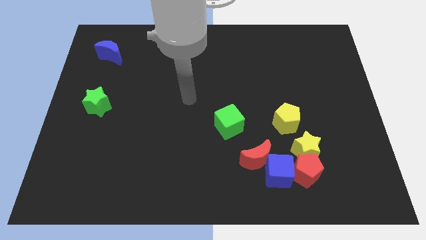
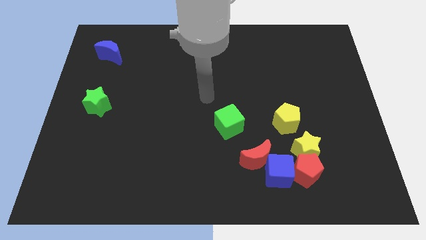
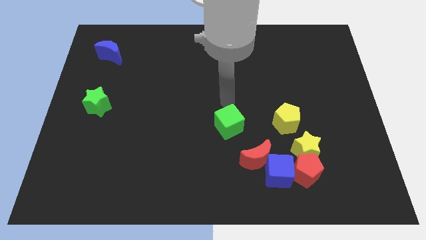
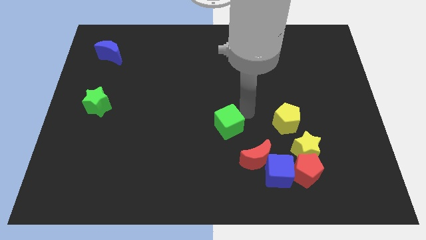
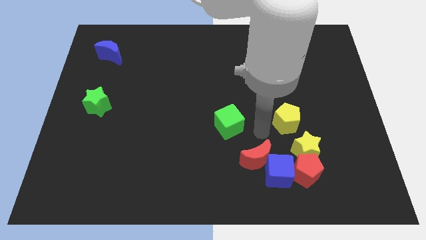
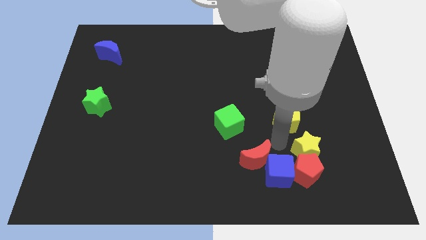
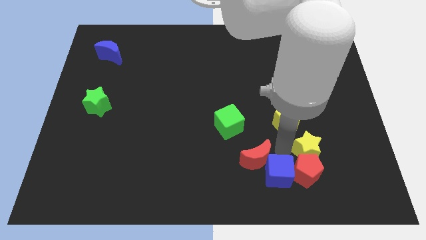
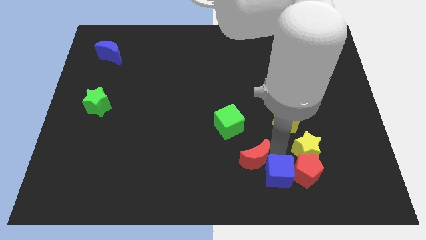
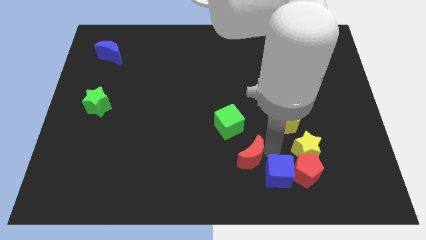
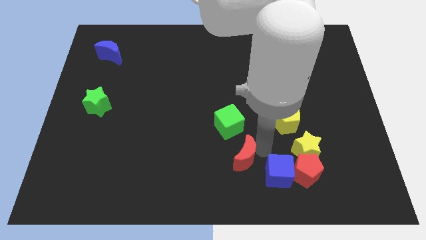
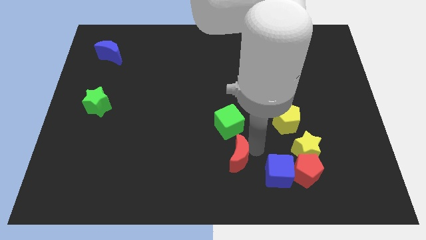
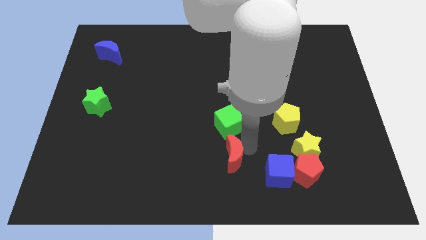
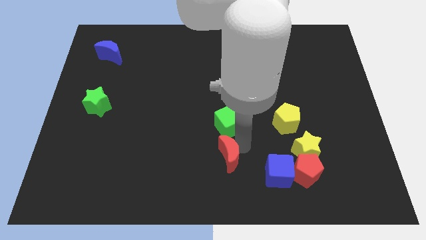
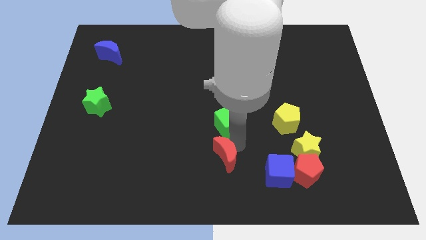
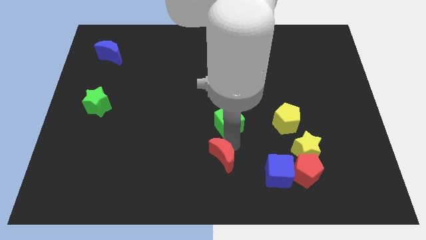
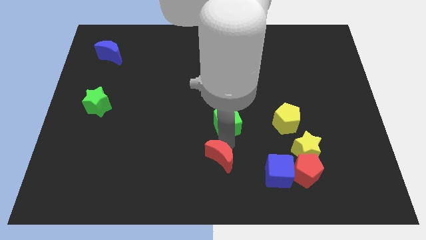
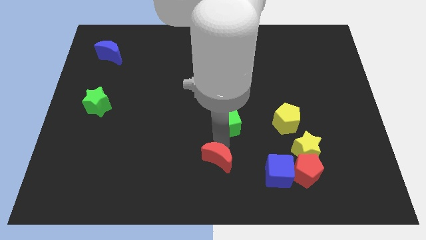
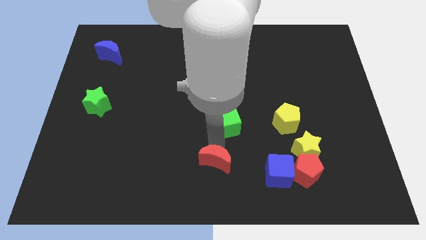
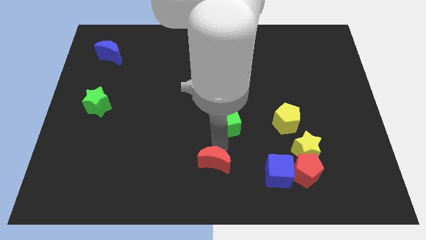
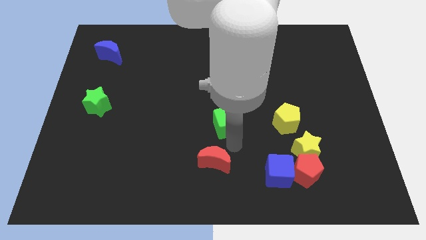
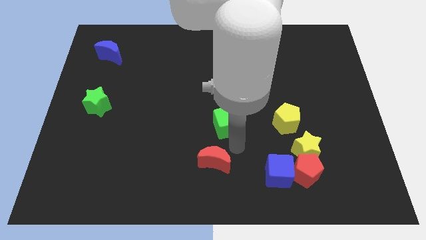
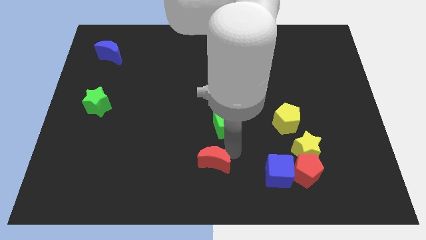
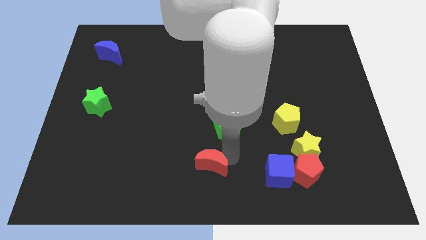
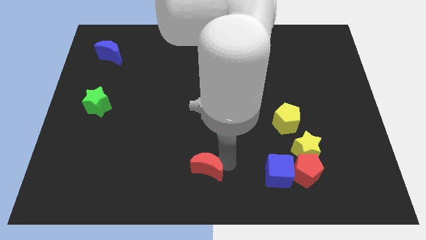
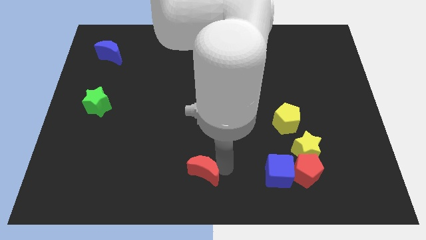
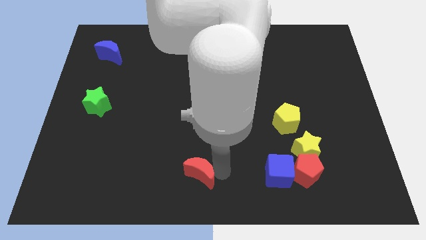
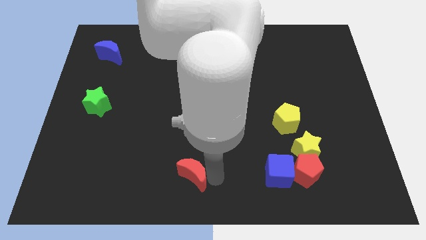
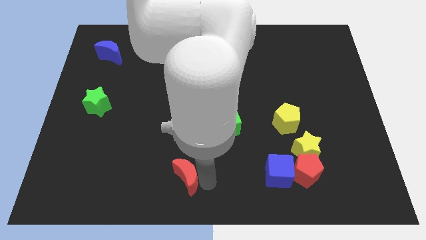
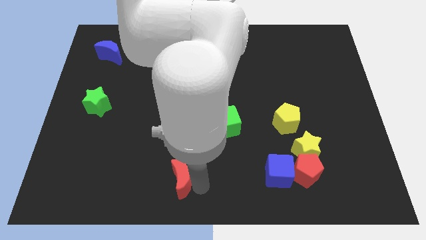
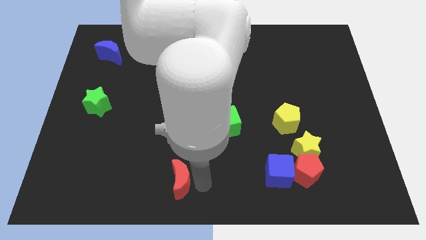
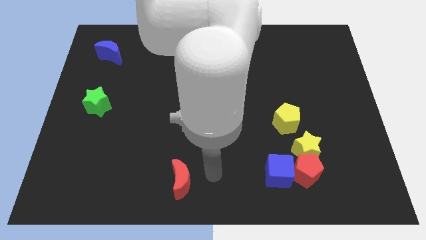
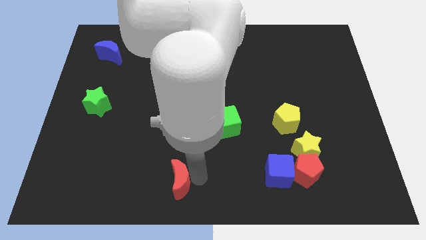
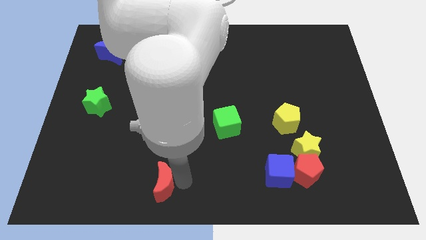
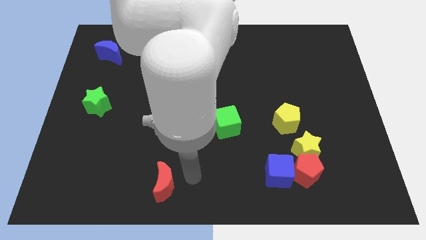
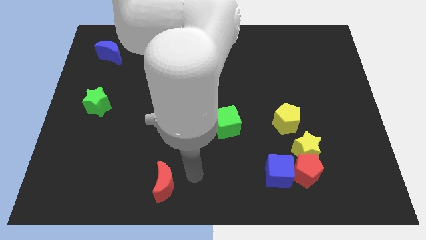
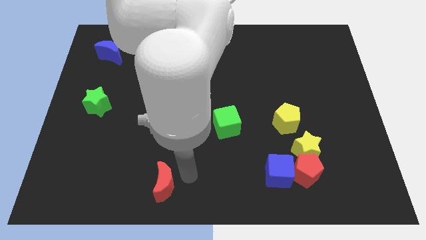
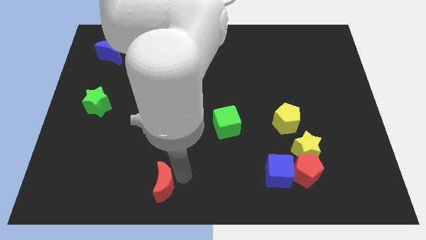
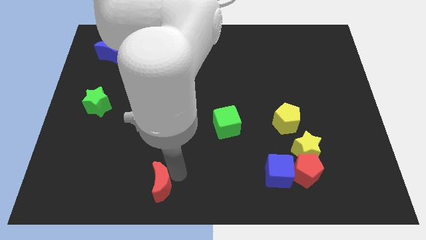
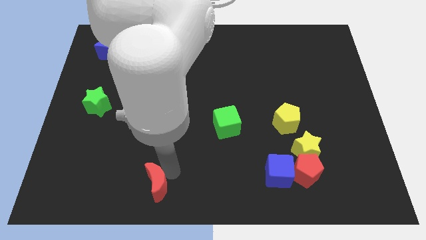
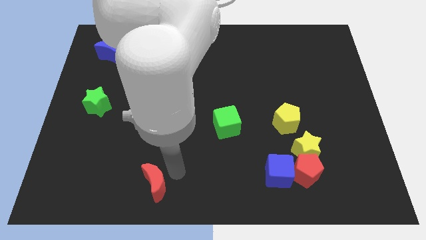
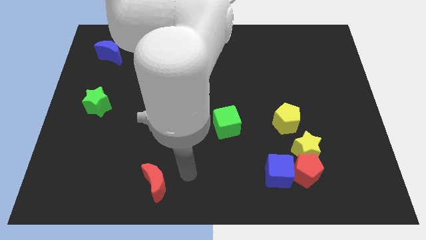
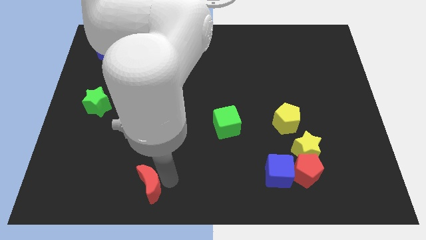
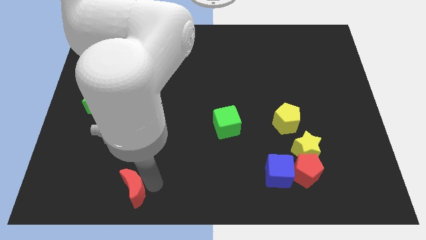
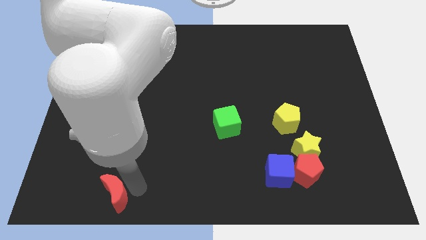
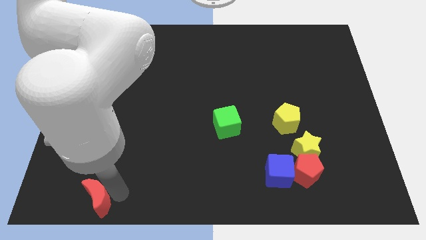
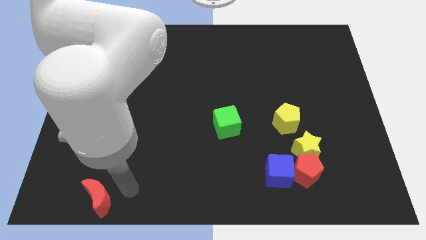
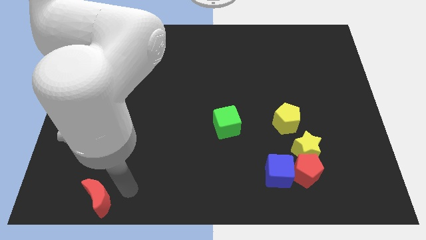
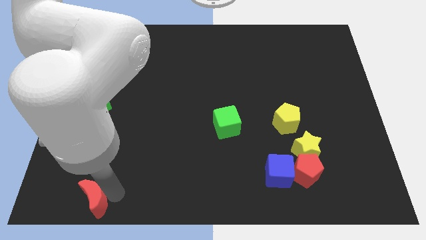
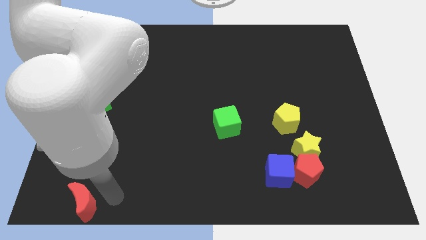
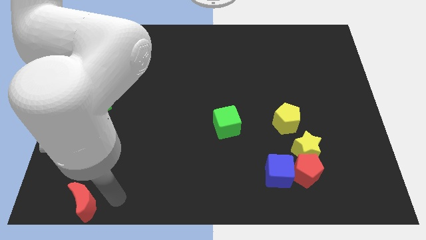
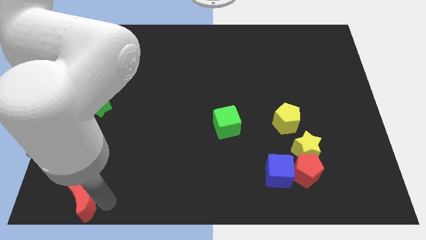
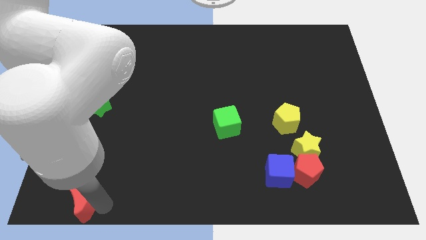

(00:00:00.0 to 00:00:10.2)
put the red moon to the bottom left corner

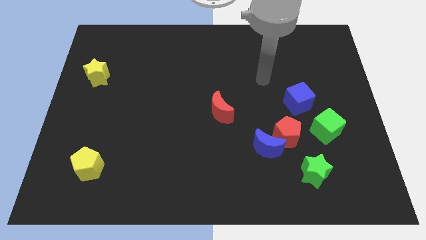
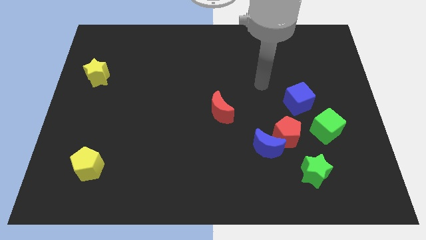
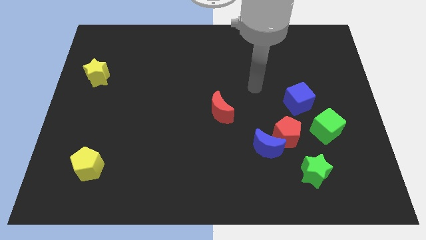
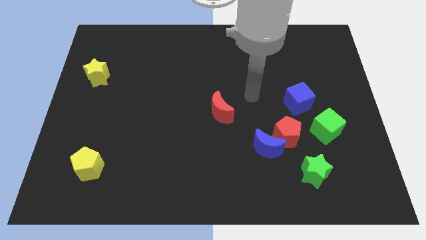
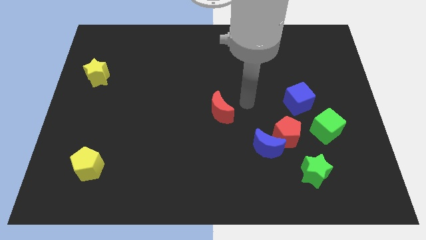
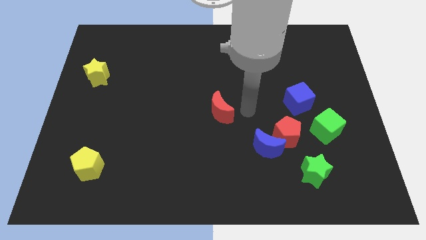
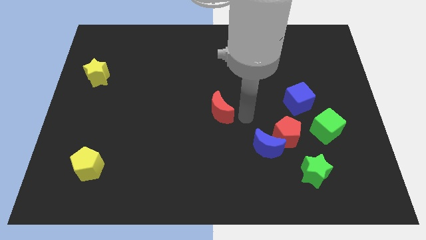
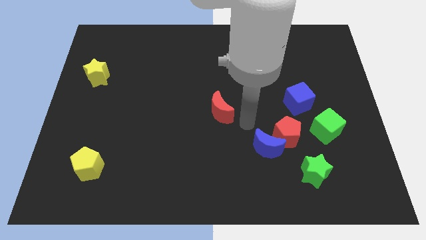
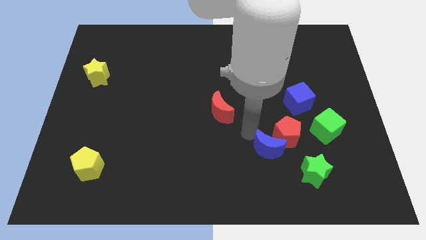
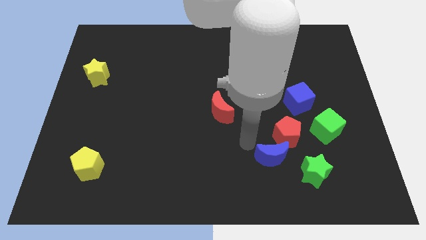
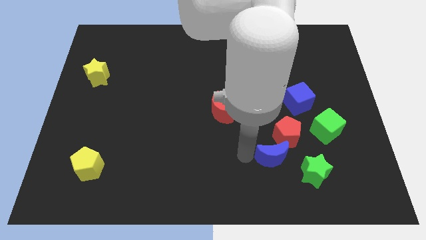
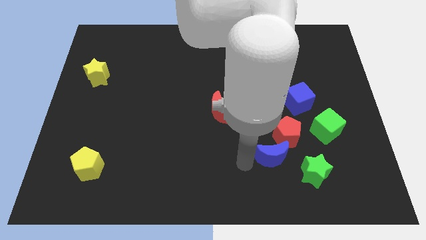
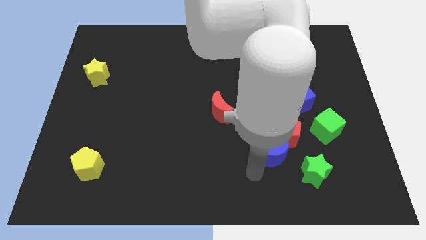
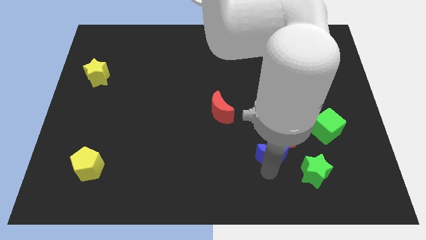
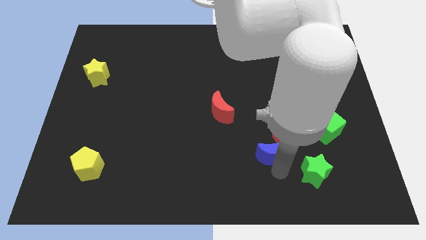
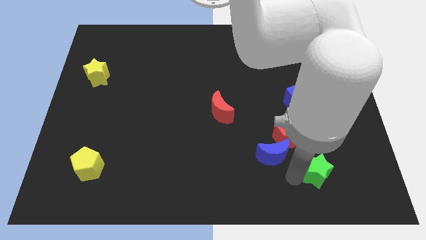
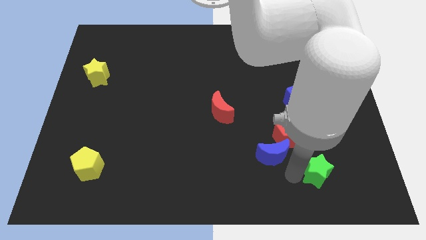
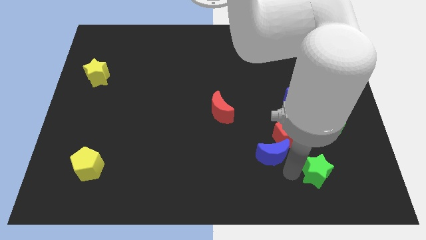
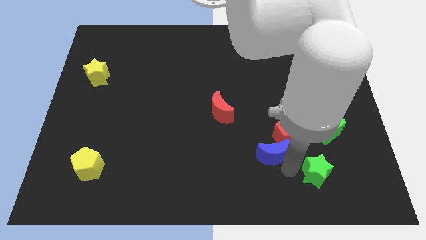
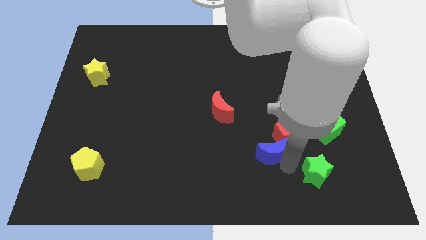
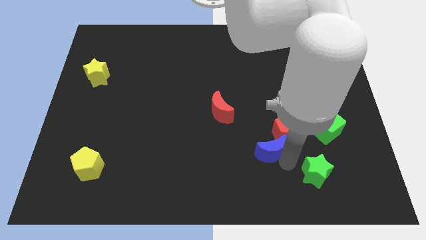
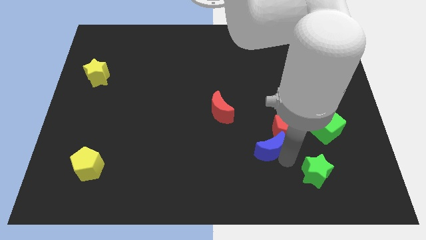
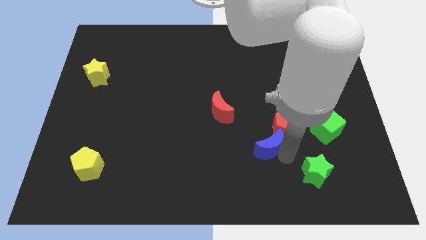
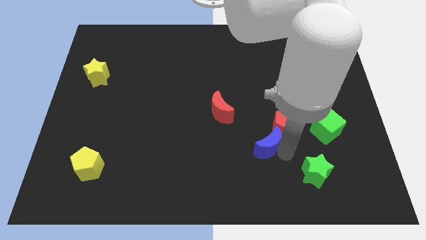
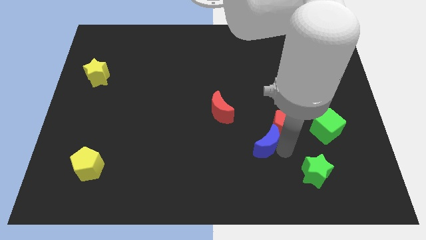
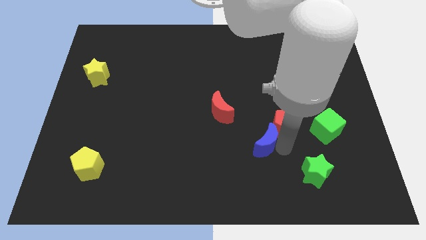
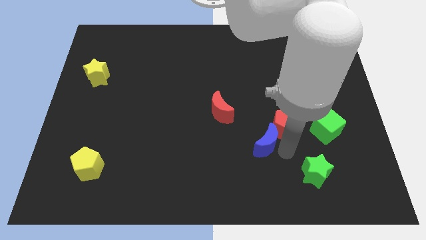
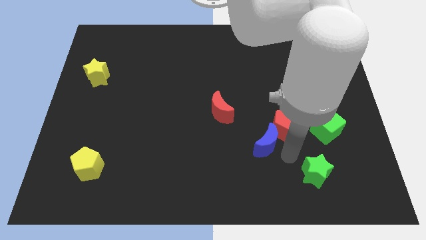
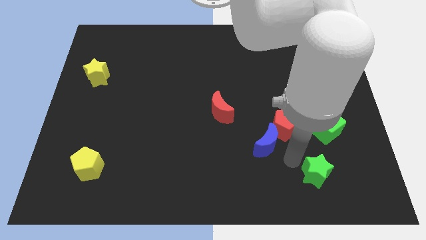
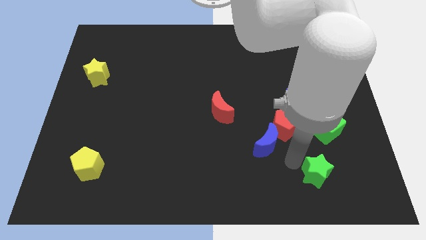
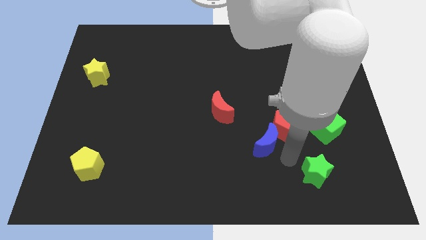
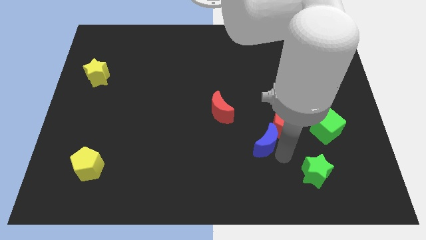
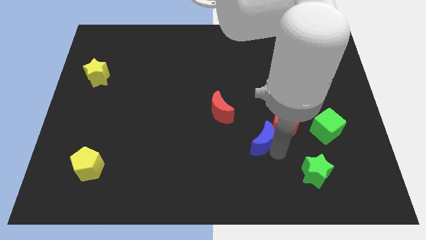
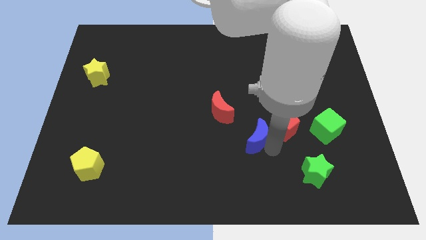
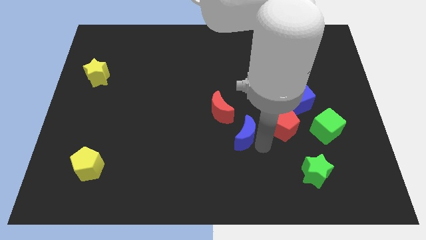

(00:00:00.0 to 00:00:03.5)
push the blue moon to the middle
